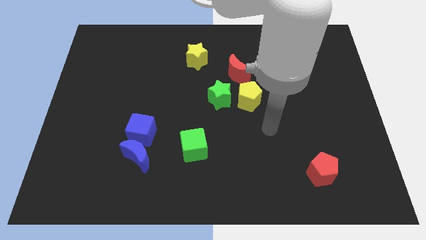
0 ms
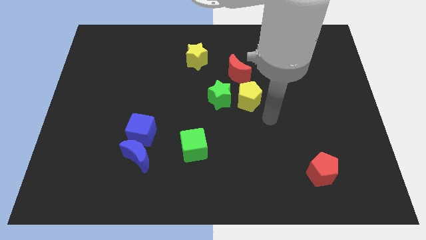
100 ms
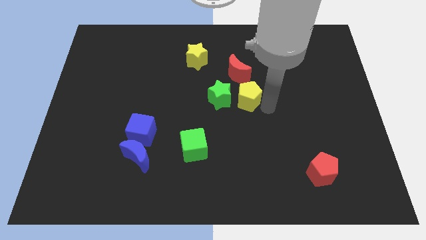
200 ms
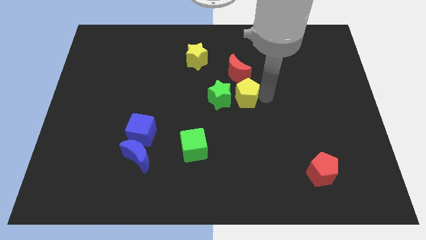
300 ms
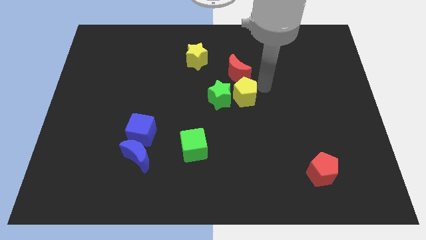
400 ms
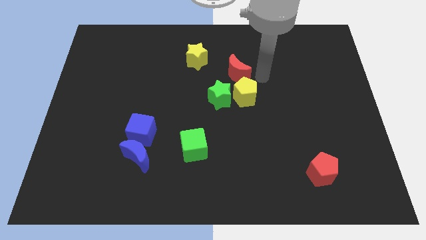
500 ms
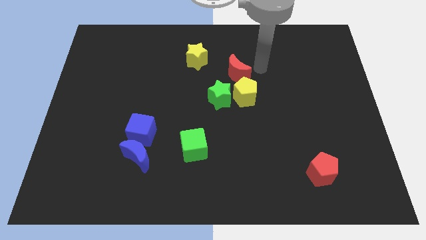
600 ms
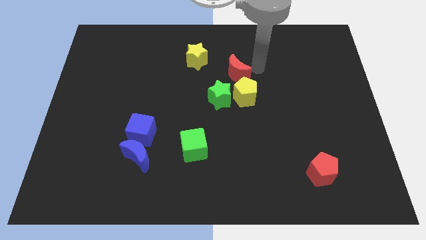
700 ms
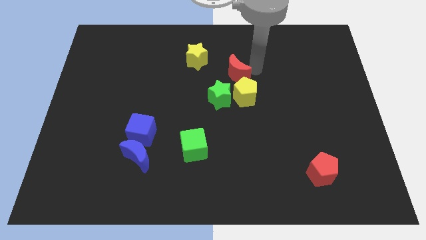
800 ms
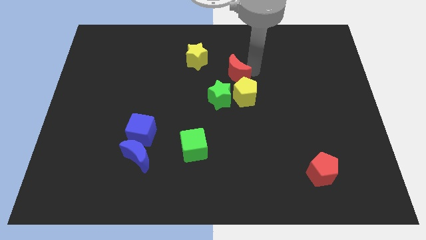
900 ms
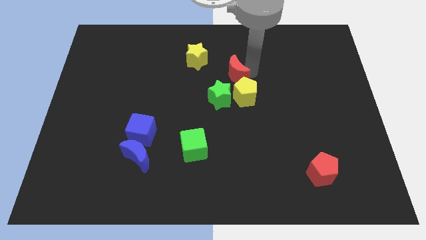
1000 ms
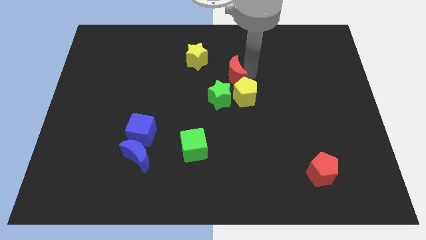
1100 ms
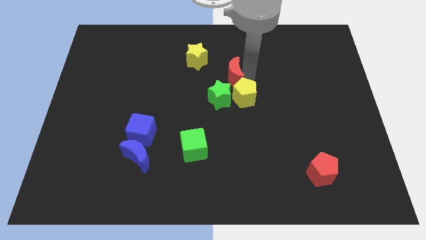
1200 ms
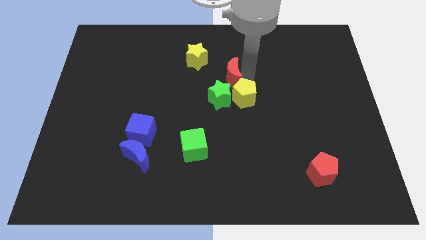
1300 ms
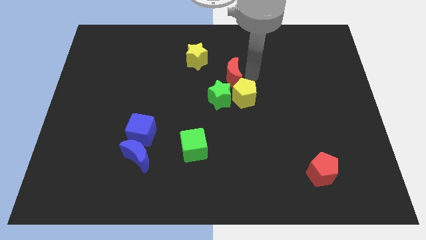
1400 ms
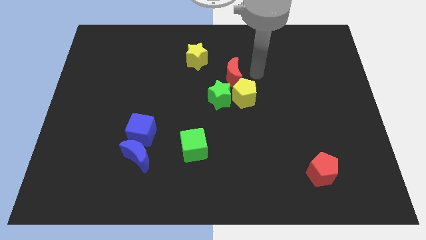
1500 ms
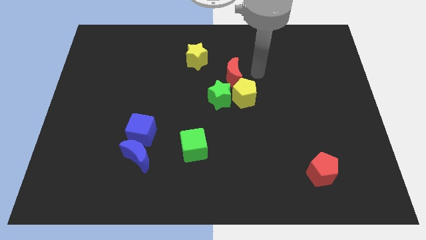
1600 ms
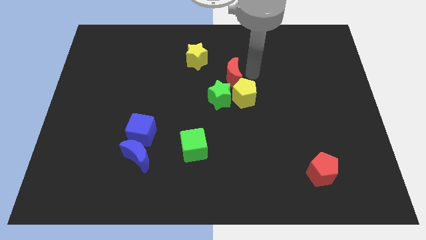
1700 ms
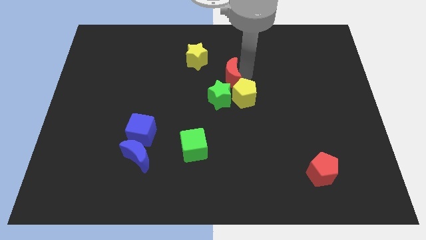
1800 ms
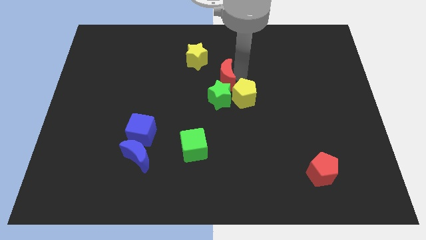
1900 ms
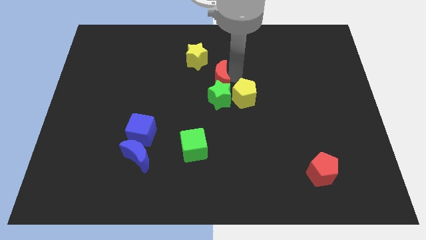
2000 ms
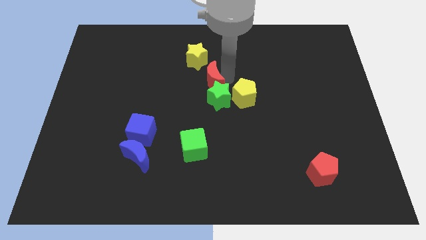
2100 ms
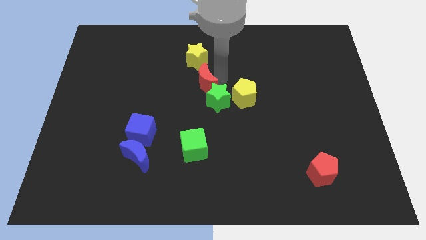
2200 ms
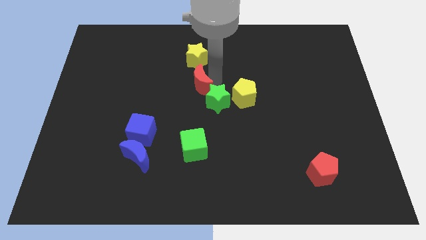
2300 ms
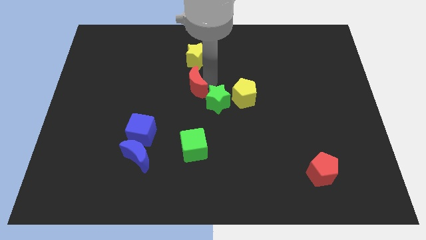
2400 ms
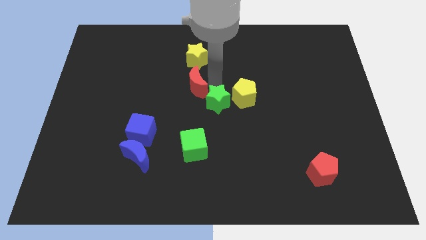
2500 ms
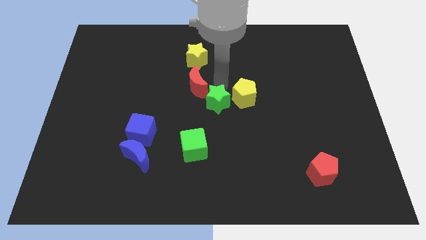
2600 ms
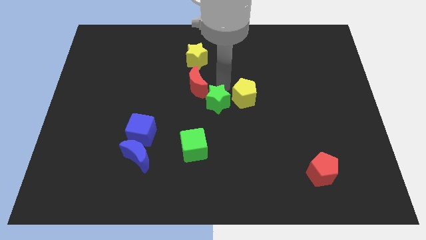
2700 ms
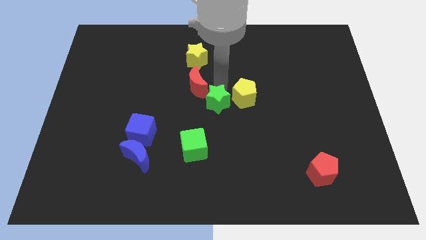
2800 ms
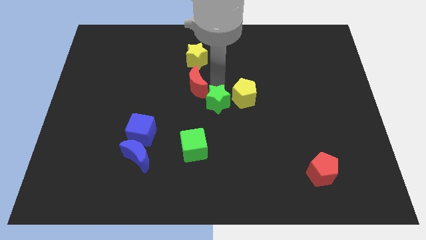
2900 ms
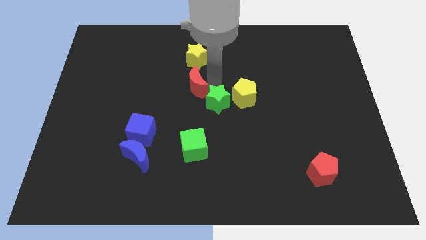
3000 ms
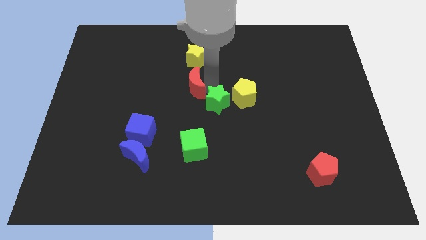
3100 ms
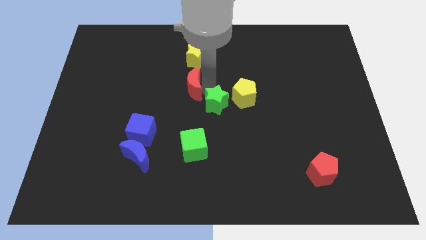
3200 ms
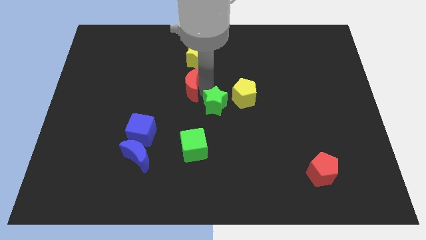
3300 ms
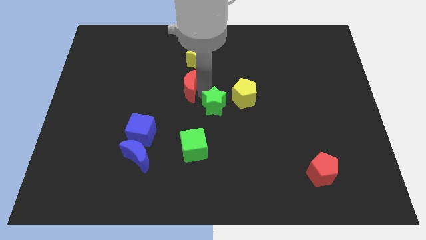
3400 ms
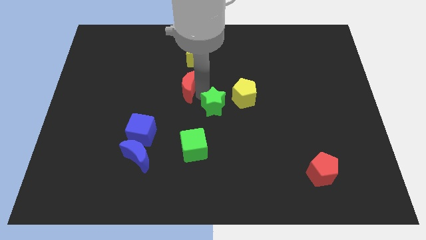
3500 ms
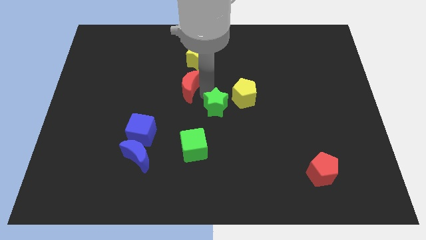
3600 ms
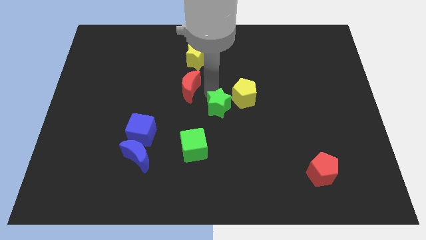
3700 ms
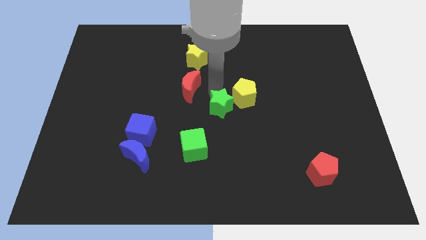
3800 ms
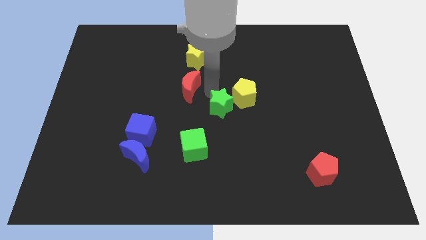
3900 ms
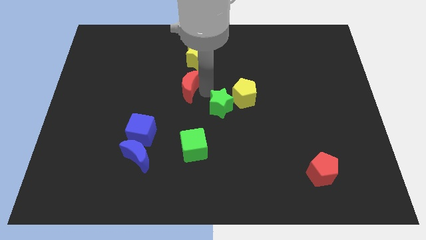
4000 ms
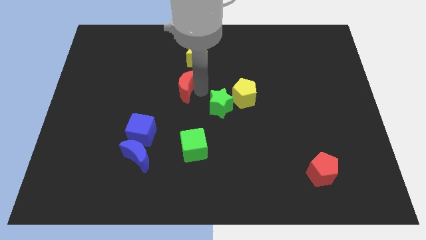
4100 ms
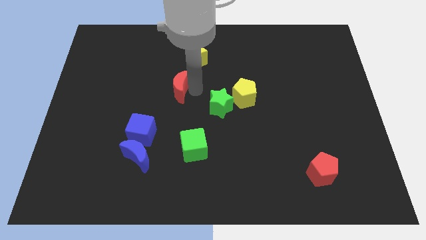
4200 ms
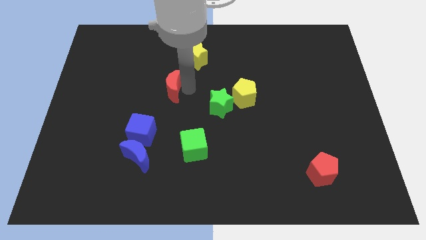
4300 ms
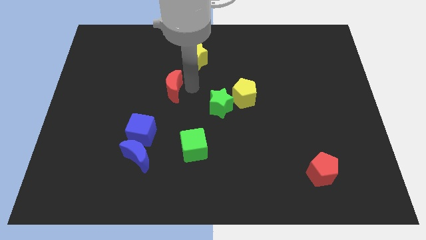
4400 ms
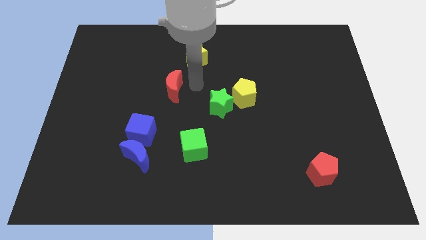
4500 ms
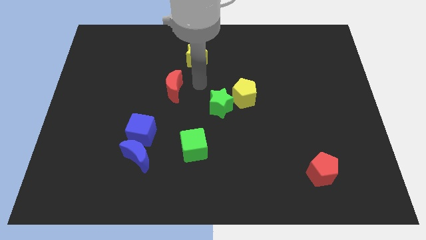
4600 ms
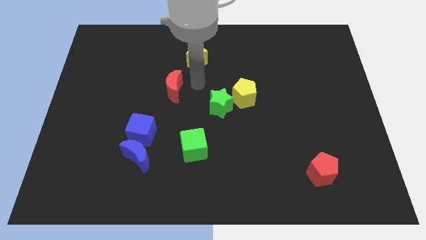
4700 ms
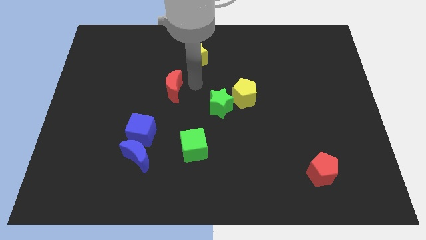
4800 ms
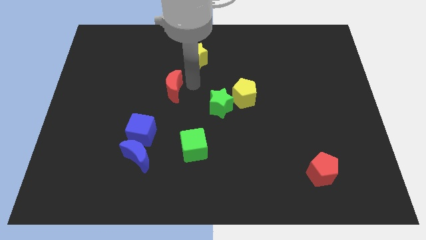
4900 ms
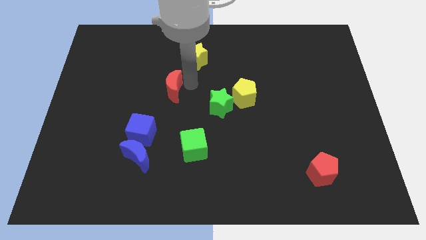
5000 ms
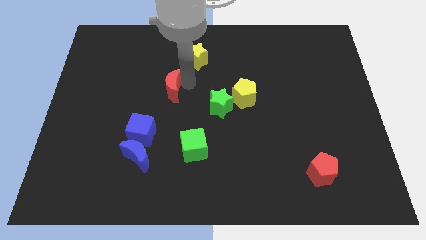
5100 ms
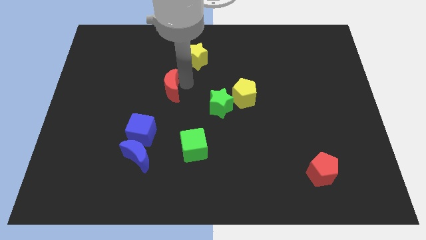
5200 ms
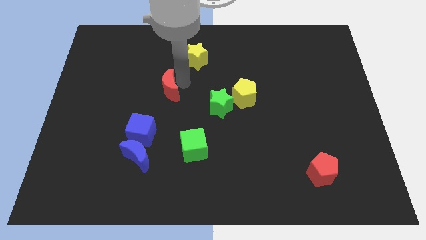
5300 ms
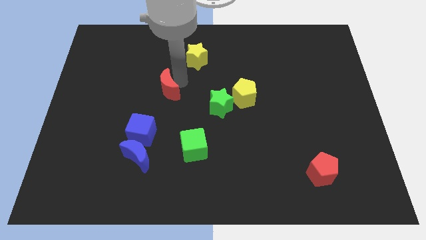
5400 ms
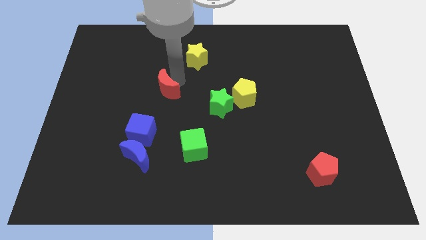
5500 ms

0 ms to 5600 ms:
push the red moon above the blue cube

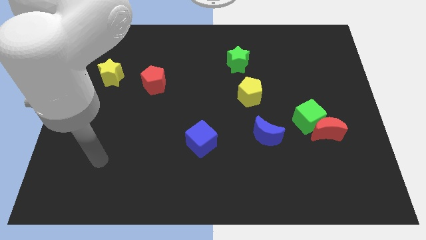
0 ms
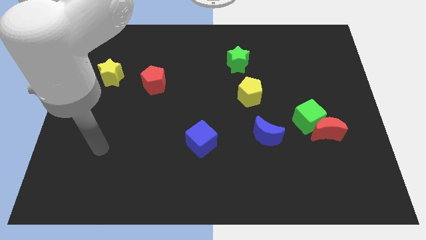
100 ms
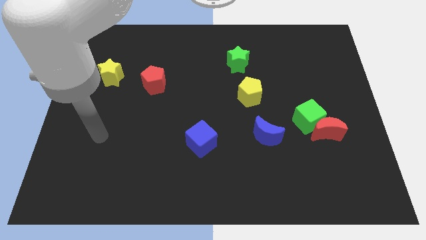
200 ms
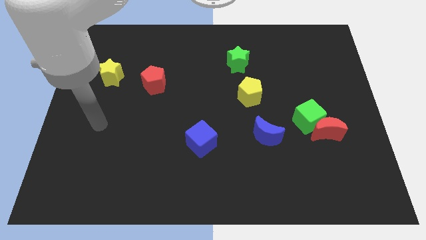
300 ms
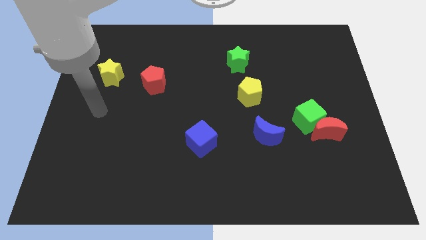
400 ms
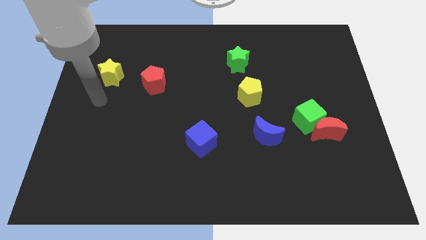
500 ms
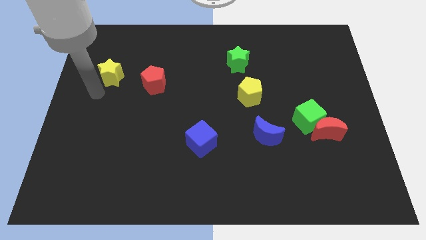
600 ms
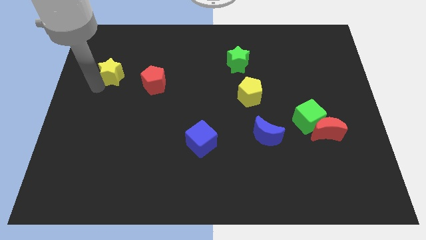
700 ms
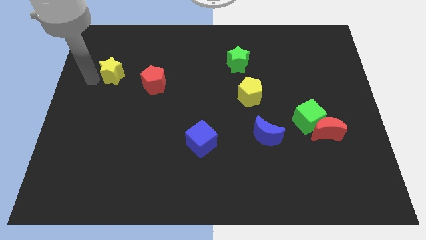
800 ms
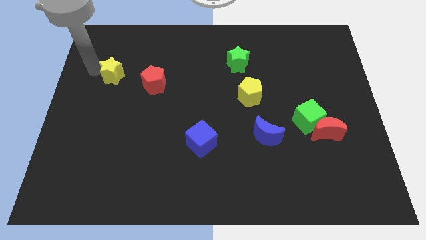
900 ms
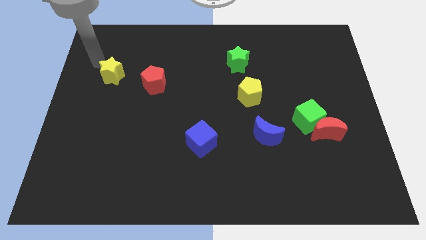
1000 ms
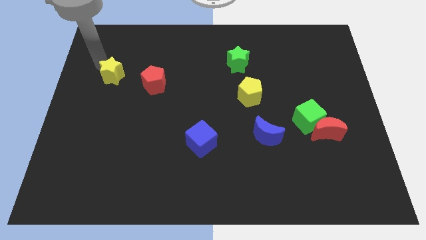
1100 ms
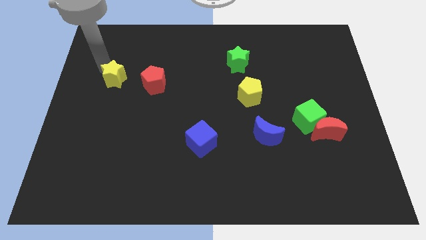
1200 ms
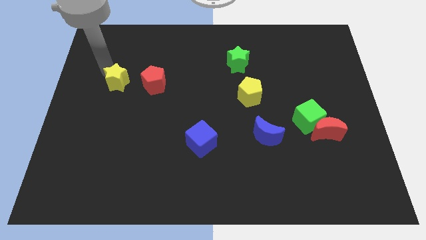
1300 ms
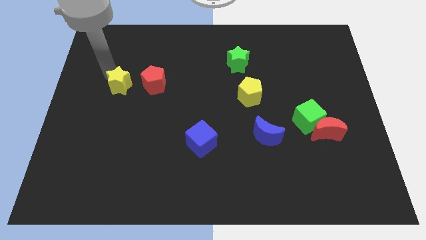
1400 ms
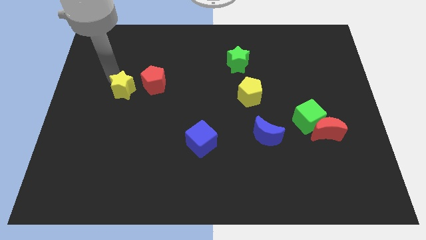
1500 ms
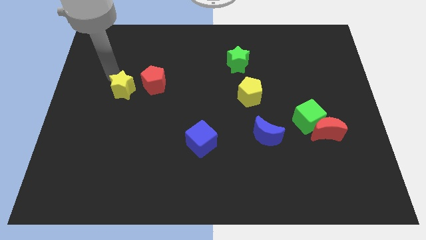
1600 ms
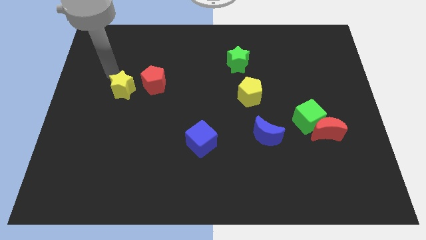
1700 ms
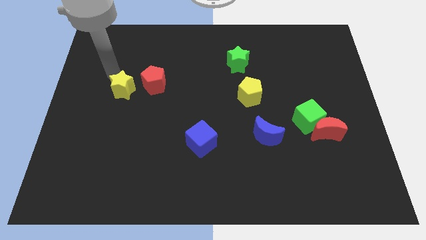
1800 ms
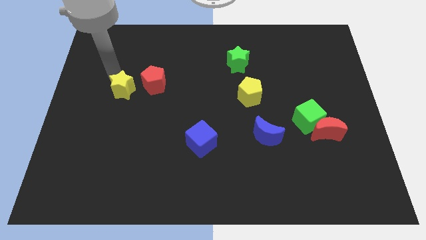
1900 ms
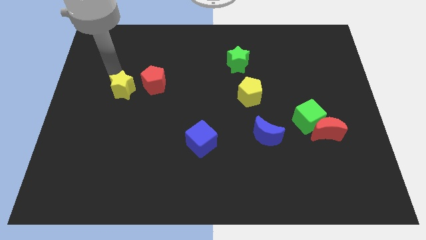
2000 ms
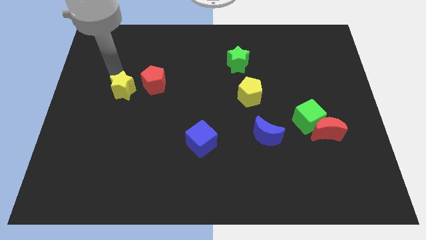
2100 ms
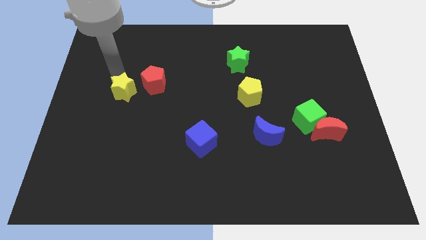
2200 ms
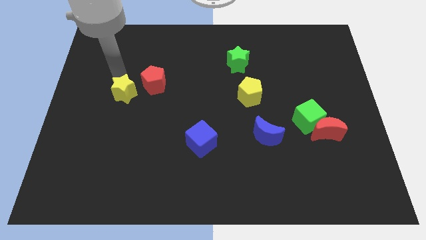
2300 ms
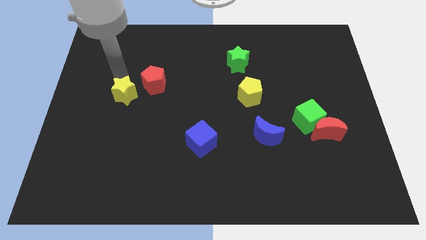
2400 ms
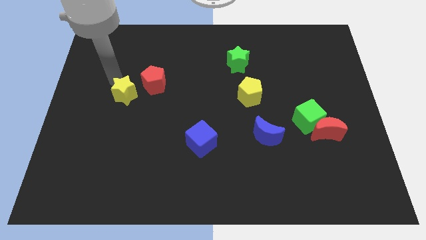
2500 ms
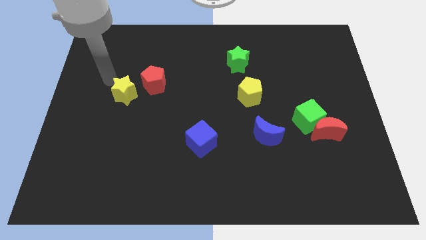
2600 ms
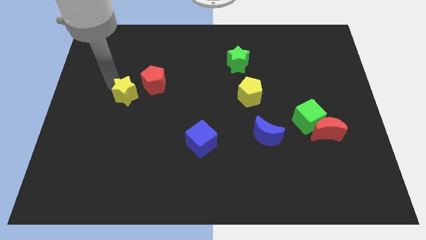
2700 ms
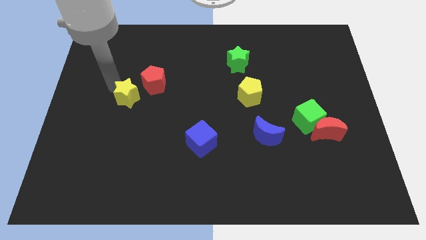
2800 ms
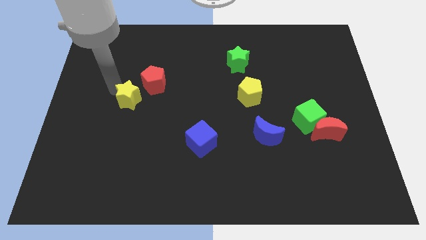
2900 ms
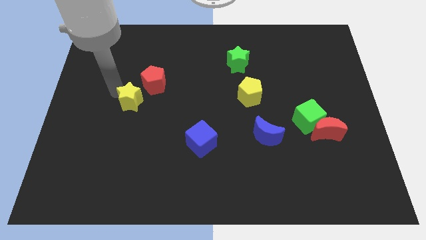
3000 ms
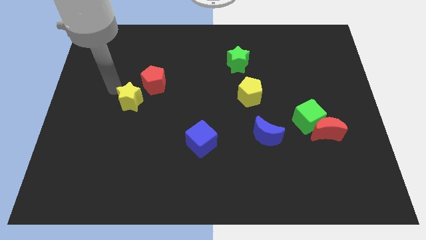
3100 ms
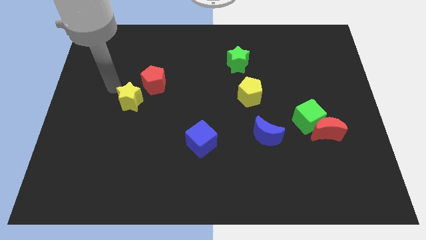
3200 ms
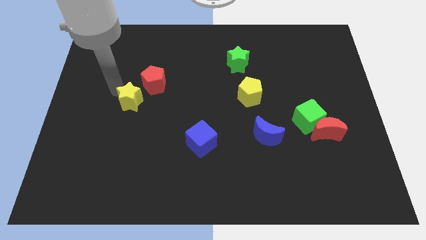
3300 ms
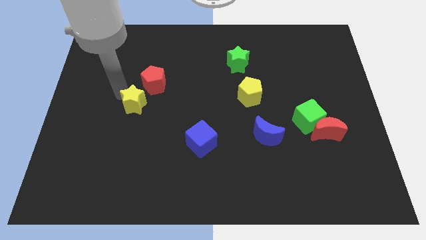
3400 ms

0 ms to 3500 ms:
move the yellow star below the red pentagon
